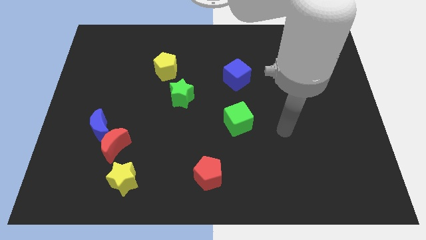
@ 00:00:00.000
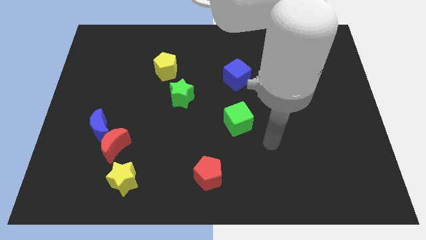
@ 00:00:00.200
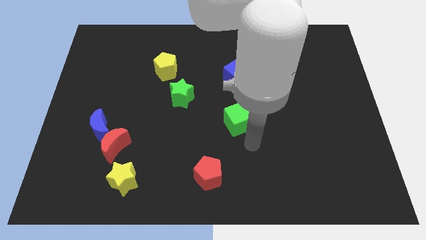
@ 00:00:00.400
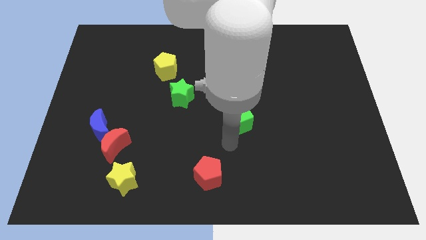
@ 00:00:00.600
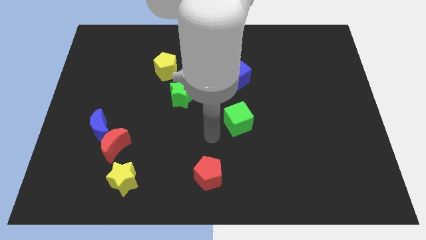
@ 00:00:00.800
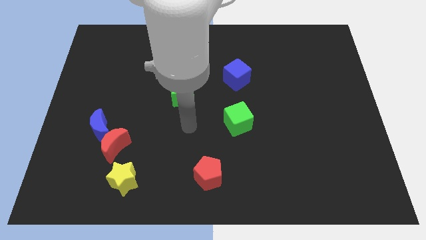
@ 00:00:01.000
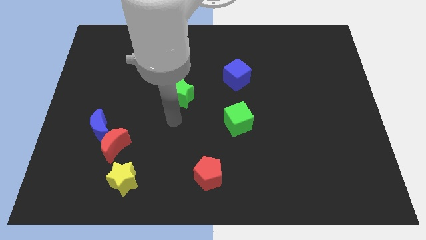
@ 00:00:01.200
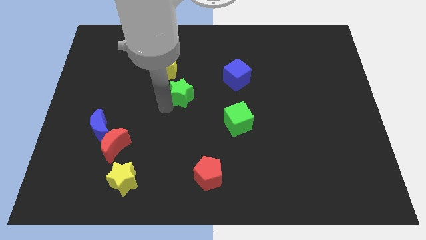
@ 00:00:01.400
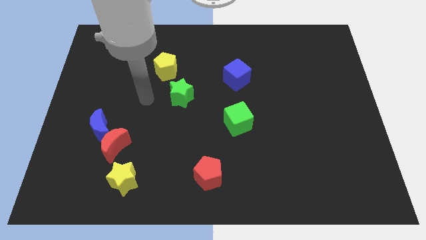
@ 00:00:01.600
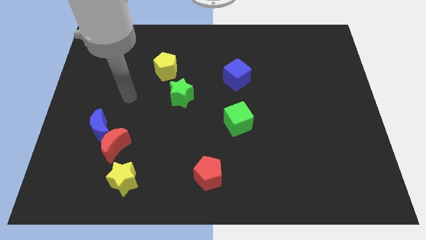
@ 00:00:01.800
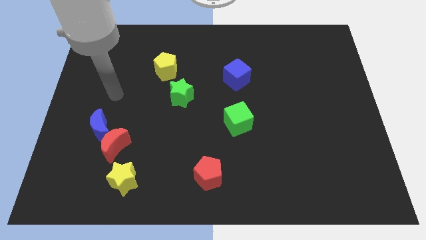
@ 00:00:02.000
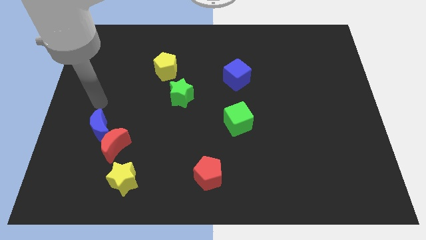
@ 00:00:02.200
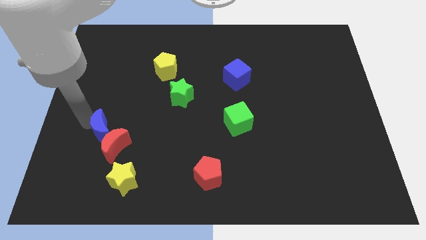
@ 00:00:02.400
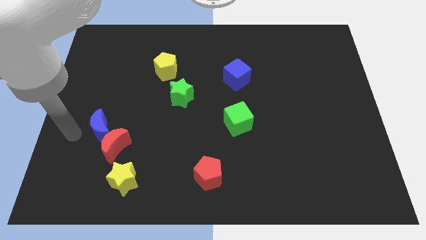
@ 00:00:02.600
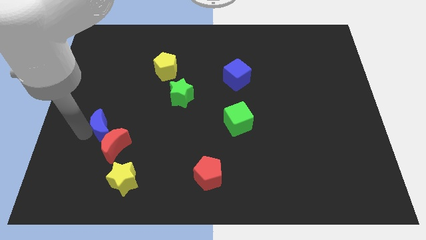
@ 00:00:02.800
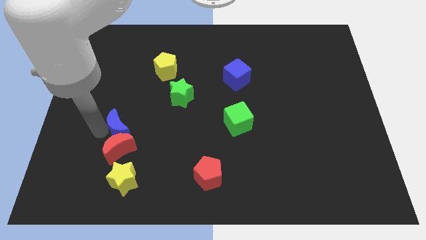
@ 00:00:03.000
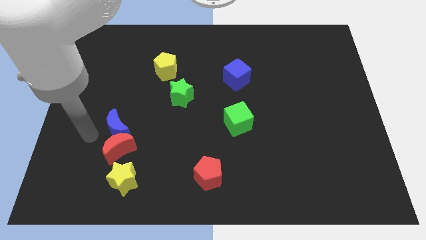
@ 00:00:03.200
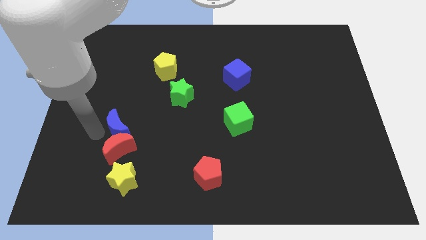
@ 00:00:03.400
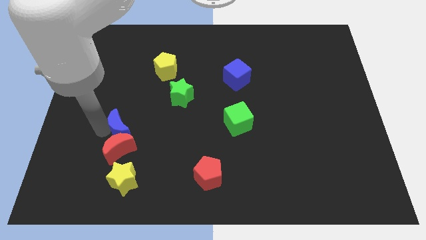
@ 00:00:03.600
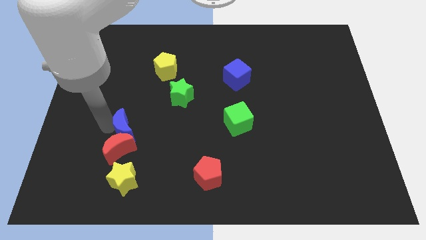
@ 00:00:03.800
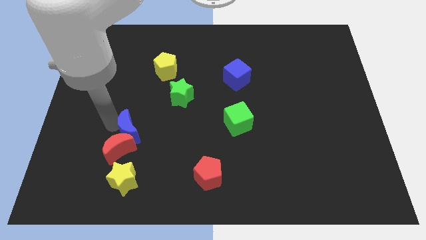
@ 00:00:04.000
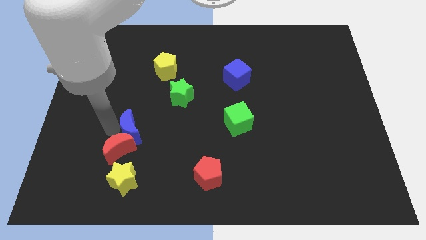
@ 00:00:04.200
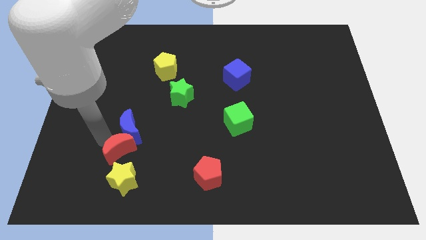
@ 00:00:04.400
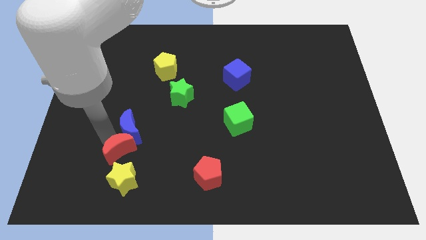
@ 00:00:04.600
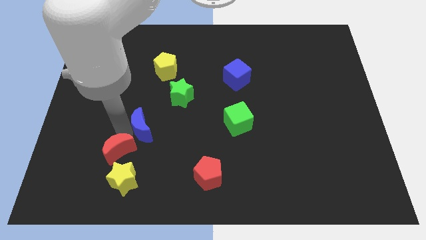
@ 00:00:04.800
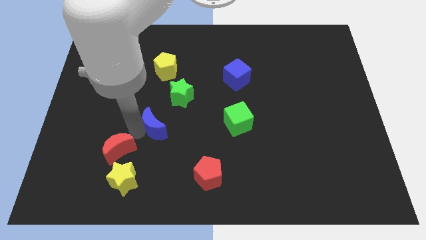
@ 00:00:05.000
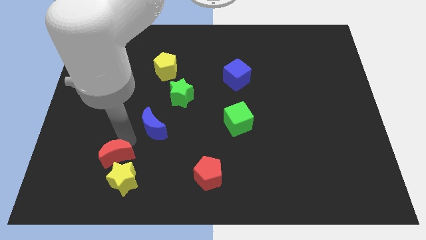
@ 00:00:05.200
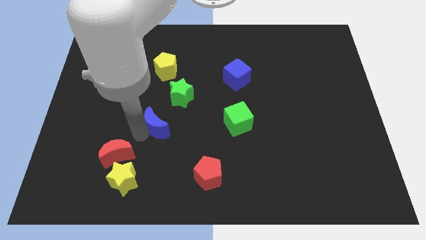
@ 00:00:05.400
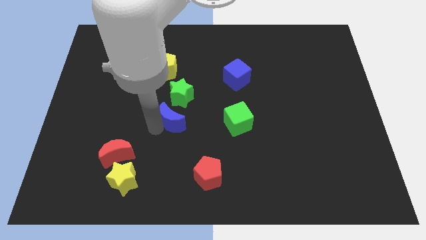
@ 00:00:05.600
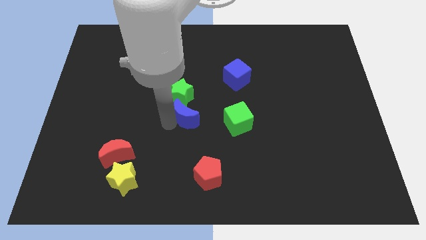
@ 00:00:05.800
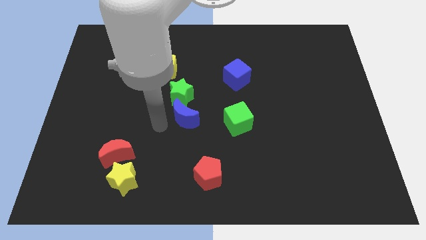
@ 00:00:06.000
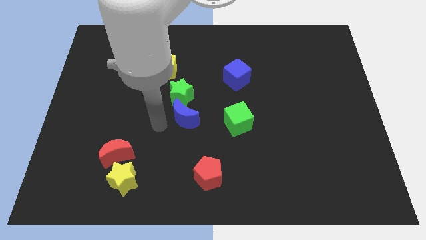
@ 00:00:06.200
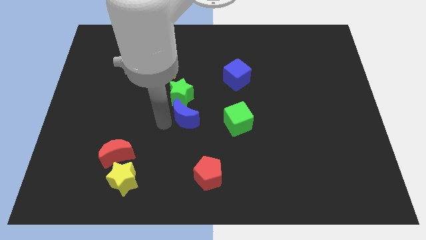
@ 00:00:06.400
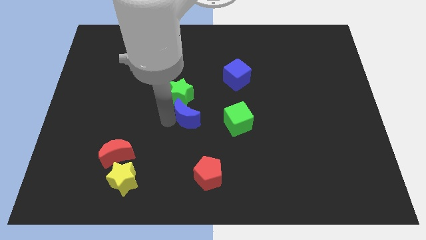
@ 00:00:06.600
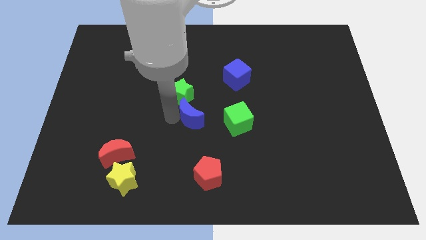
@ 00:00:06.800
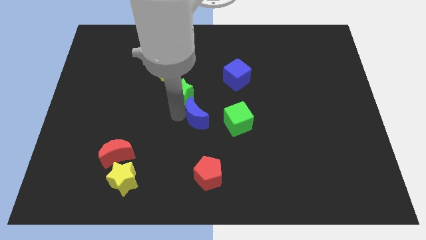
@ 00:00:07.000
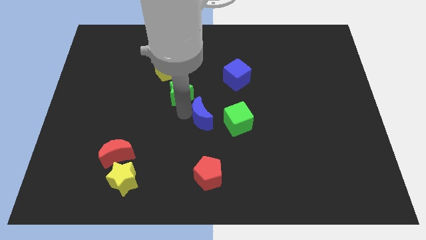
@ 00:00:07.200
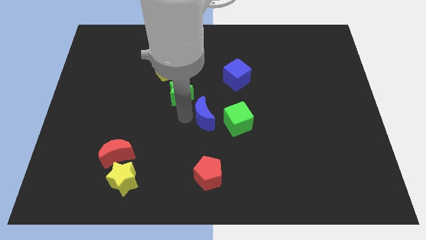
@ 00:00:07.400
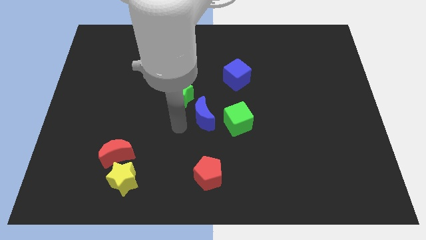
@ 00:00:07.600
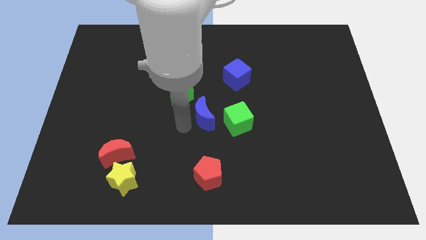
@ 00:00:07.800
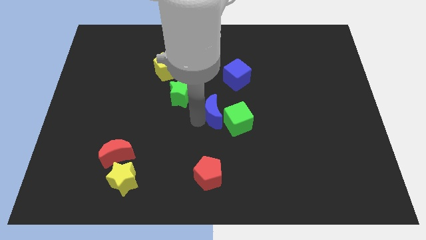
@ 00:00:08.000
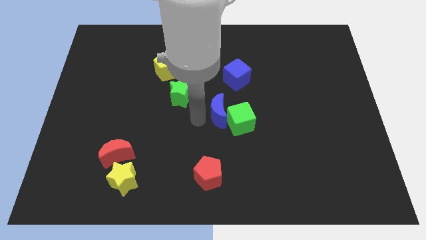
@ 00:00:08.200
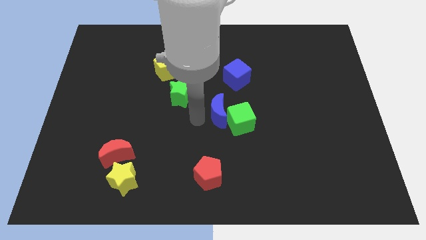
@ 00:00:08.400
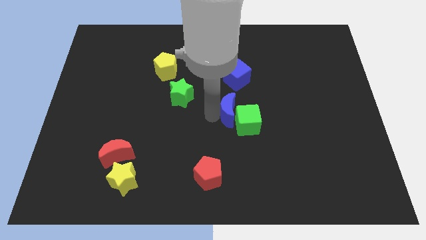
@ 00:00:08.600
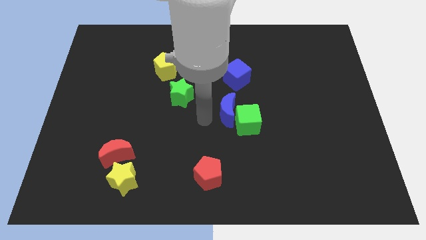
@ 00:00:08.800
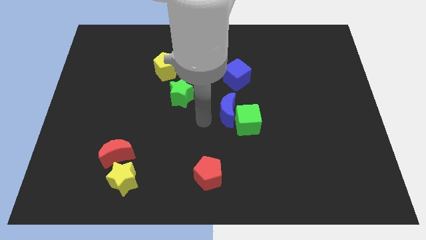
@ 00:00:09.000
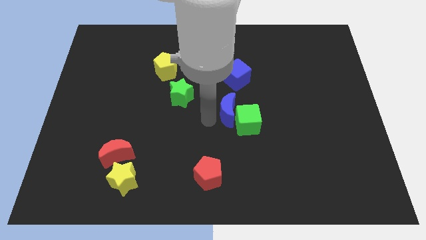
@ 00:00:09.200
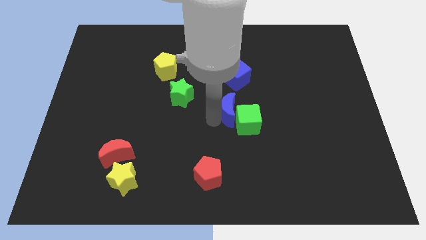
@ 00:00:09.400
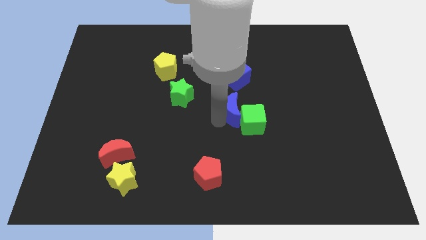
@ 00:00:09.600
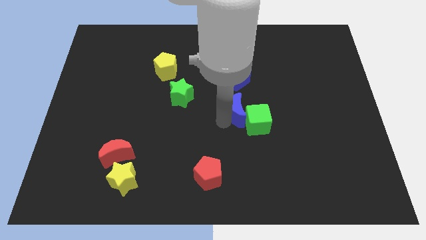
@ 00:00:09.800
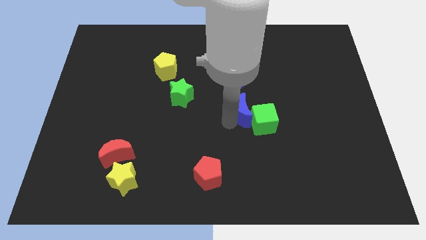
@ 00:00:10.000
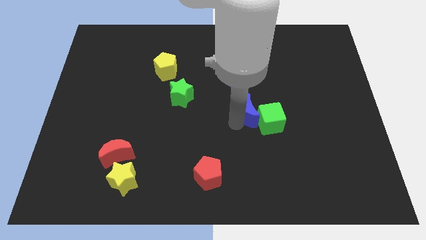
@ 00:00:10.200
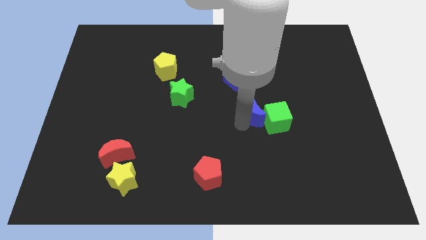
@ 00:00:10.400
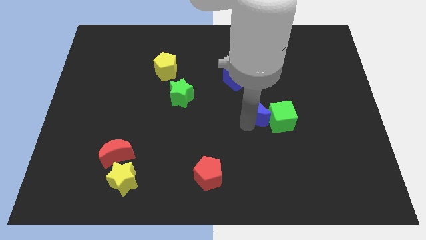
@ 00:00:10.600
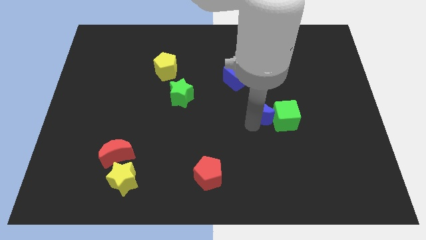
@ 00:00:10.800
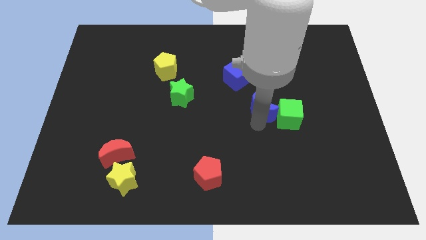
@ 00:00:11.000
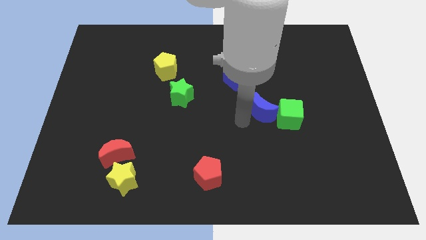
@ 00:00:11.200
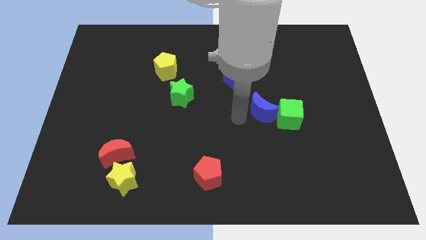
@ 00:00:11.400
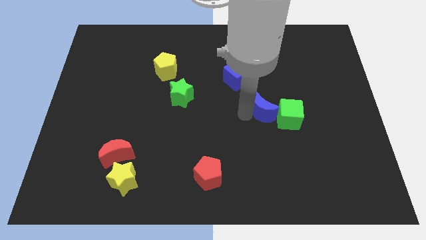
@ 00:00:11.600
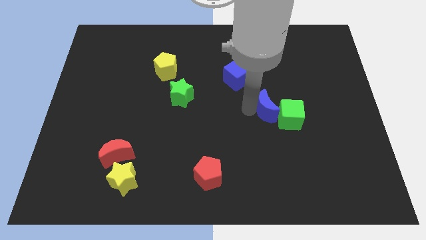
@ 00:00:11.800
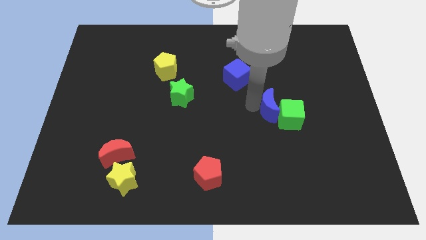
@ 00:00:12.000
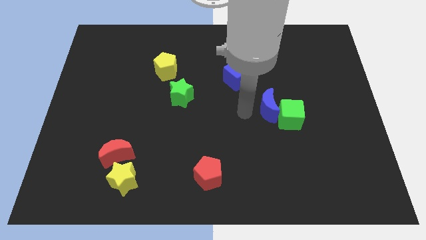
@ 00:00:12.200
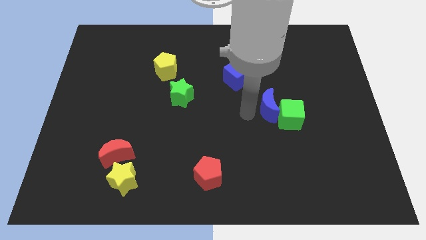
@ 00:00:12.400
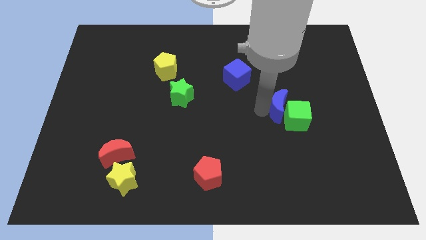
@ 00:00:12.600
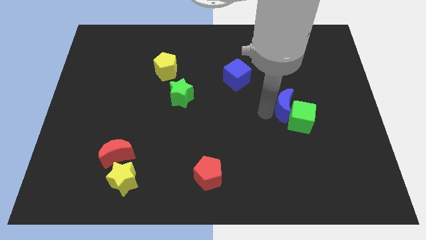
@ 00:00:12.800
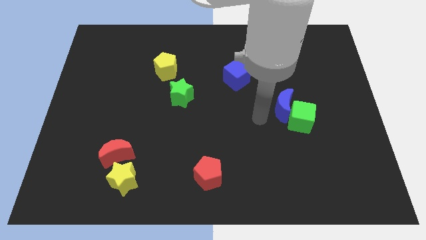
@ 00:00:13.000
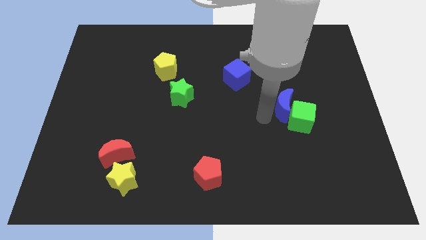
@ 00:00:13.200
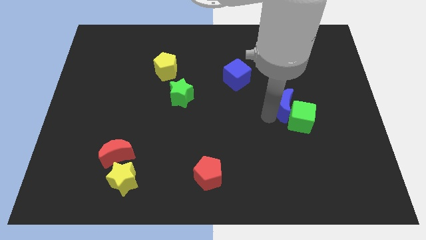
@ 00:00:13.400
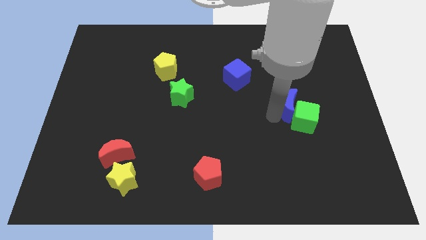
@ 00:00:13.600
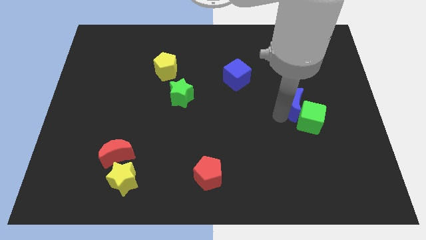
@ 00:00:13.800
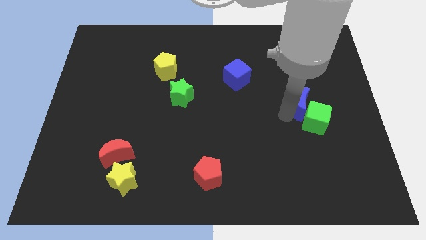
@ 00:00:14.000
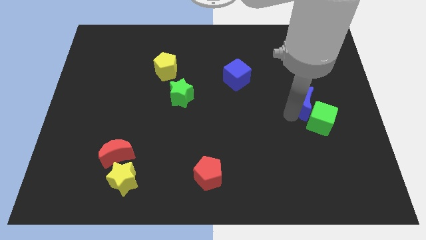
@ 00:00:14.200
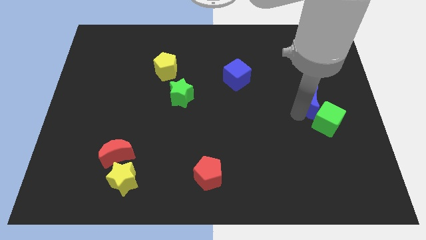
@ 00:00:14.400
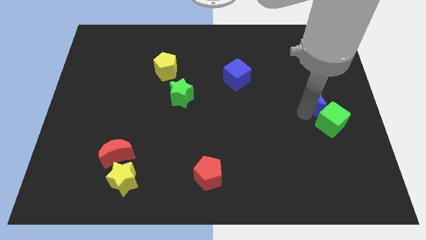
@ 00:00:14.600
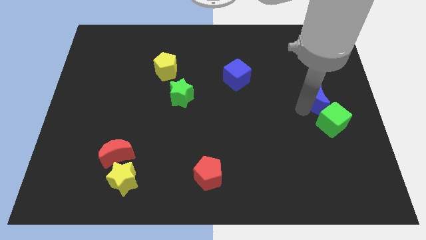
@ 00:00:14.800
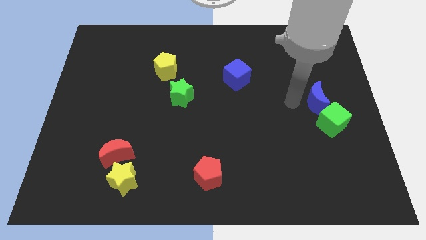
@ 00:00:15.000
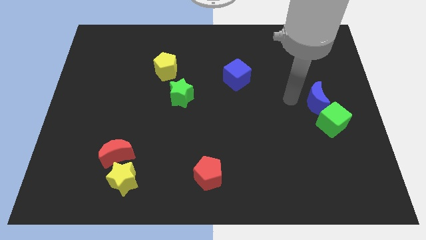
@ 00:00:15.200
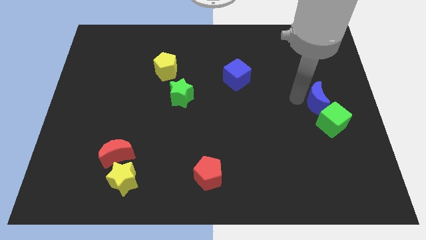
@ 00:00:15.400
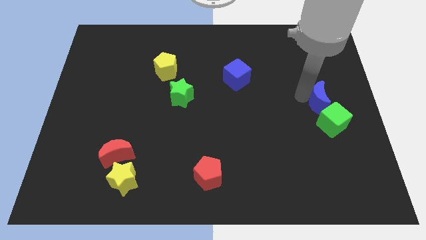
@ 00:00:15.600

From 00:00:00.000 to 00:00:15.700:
push the blue moon to the right side of the board
